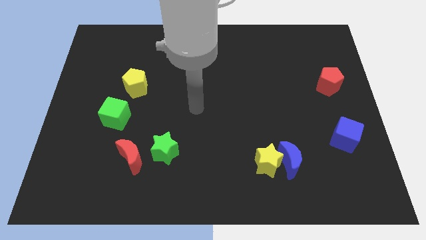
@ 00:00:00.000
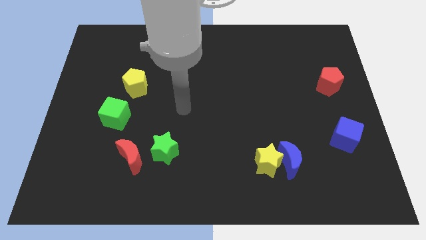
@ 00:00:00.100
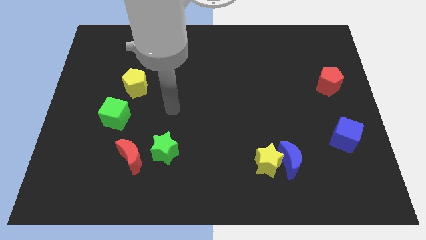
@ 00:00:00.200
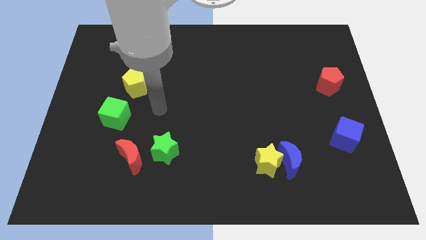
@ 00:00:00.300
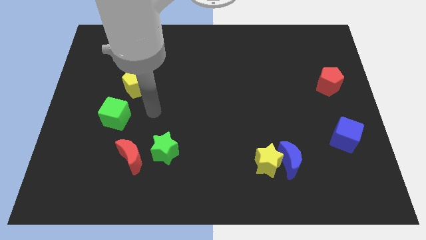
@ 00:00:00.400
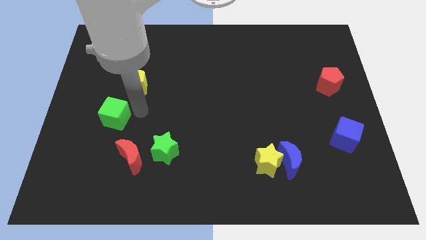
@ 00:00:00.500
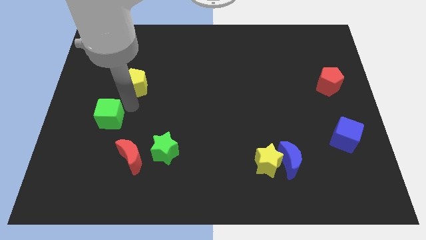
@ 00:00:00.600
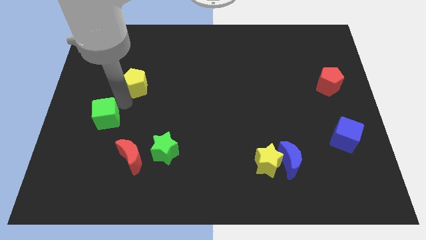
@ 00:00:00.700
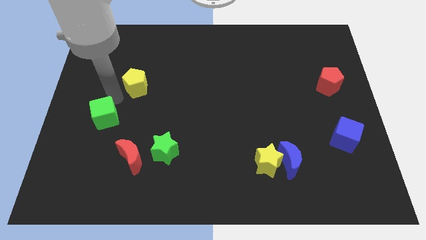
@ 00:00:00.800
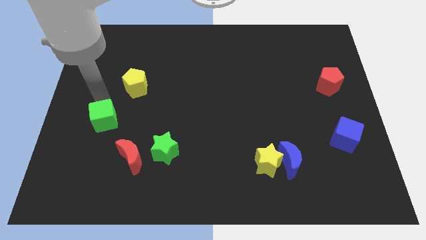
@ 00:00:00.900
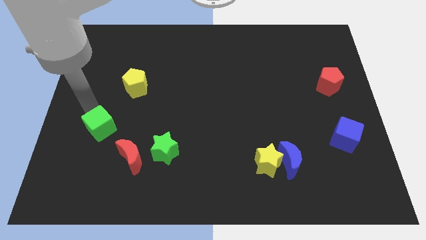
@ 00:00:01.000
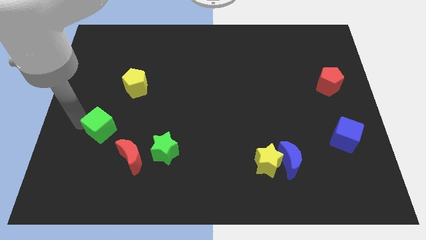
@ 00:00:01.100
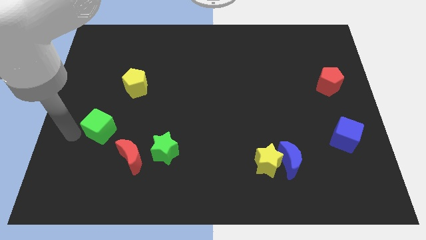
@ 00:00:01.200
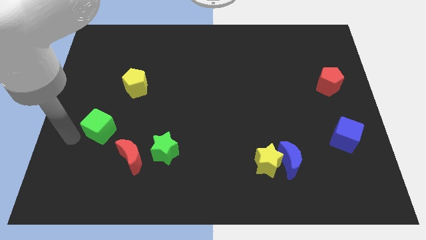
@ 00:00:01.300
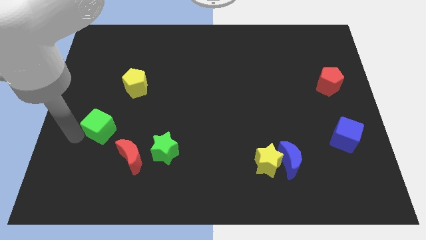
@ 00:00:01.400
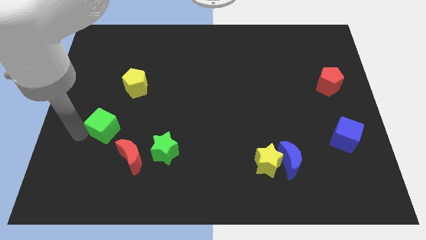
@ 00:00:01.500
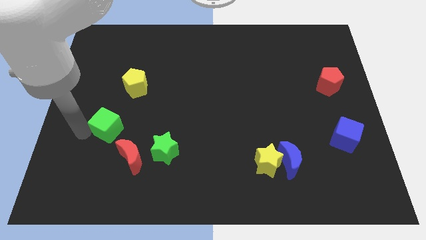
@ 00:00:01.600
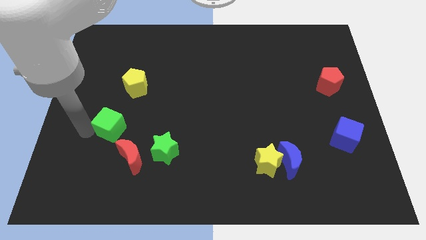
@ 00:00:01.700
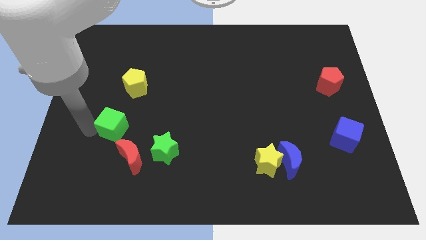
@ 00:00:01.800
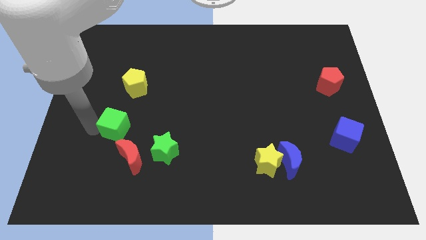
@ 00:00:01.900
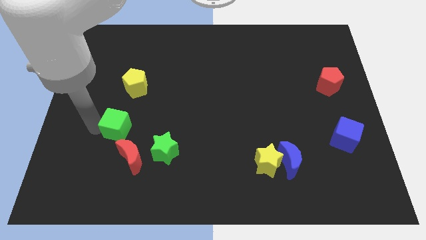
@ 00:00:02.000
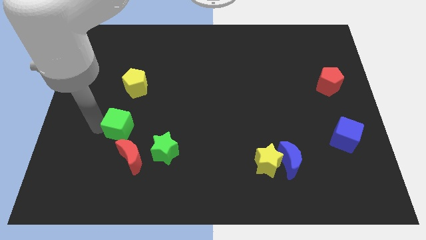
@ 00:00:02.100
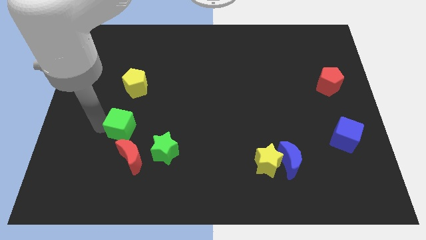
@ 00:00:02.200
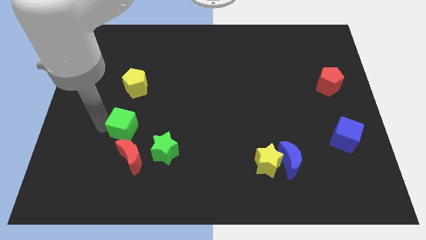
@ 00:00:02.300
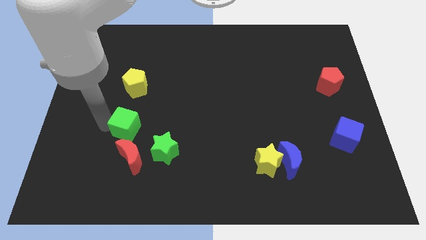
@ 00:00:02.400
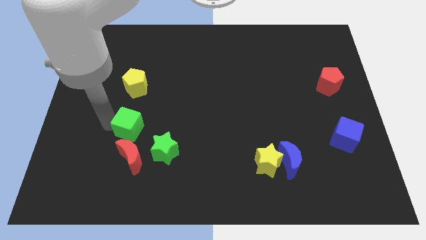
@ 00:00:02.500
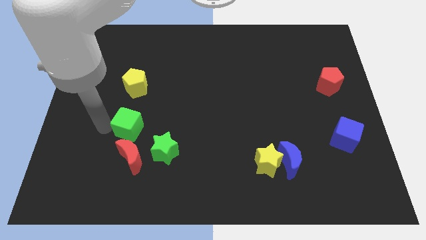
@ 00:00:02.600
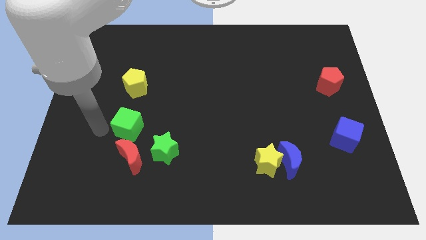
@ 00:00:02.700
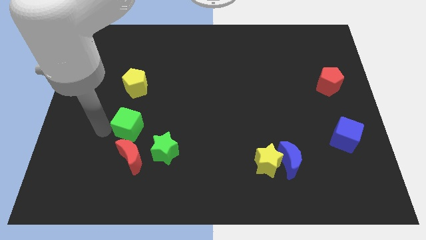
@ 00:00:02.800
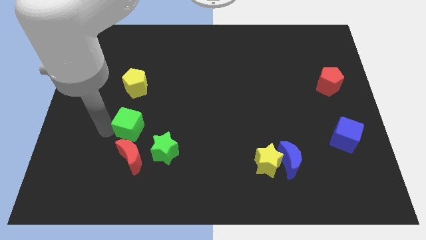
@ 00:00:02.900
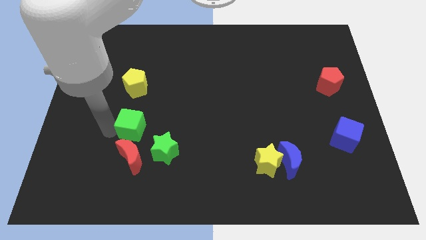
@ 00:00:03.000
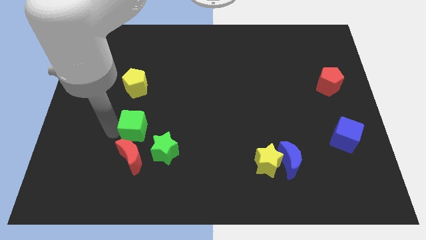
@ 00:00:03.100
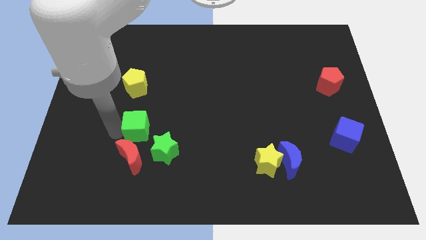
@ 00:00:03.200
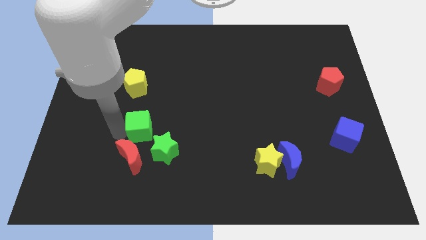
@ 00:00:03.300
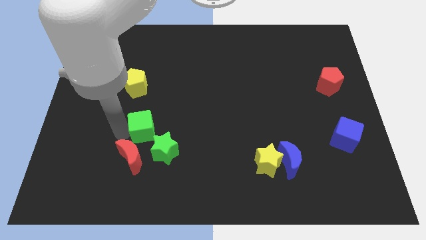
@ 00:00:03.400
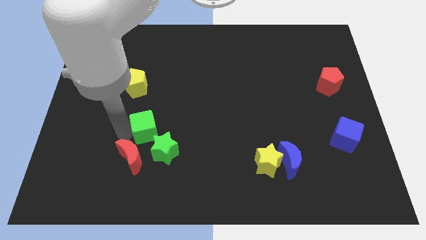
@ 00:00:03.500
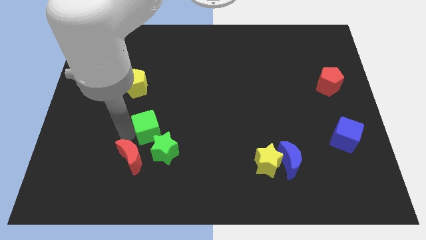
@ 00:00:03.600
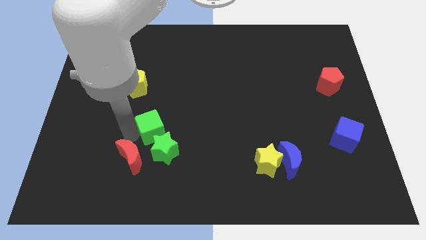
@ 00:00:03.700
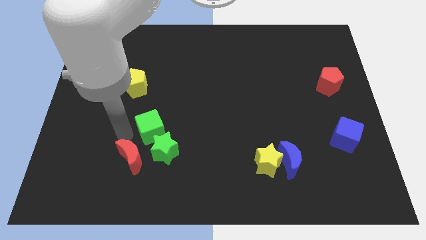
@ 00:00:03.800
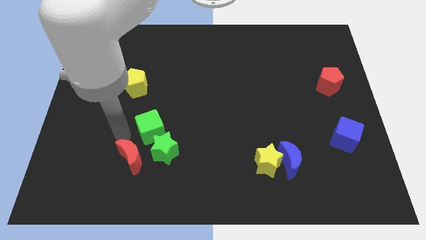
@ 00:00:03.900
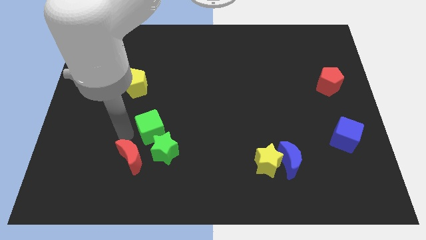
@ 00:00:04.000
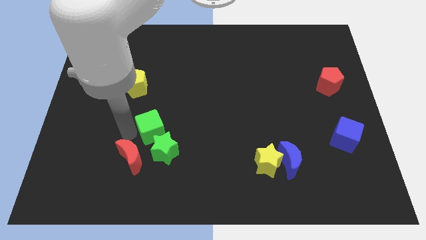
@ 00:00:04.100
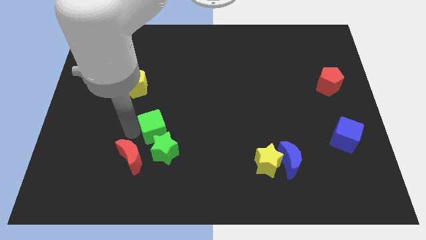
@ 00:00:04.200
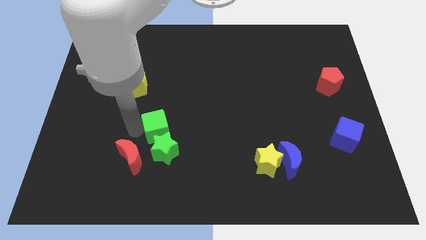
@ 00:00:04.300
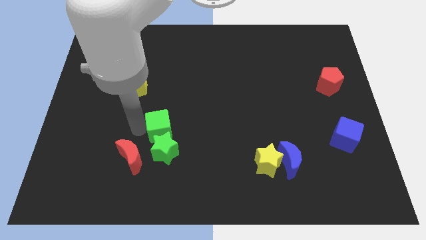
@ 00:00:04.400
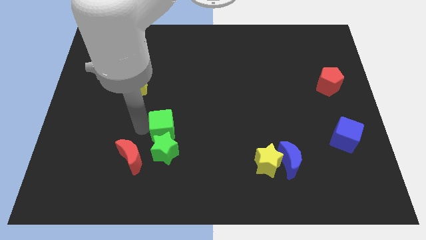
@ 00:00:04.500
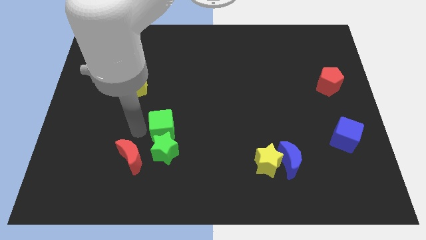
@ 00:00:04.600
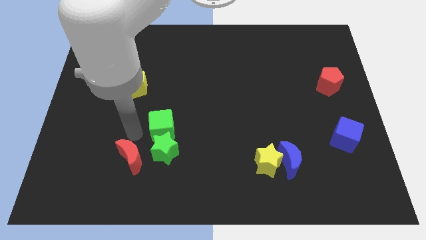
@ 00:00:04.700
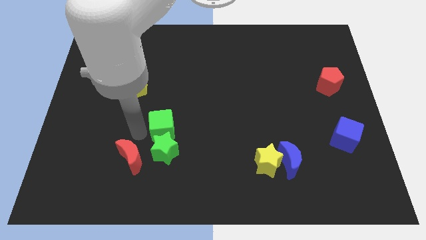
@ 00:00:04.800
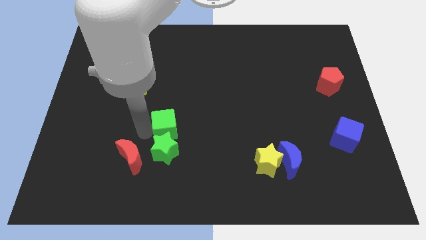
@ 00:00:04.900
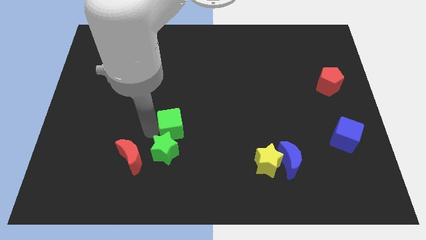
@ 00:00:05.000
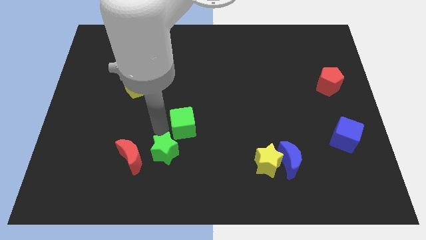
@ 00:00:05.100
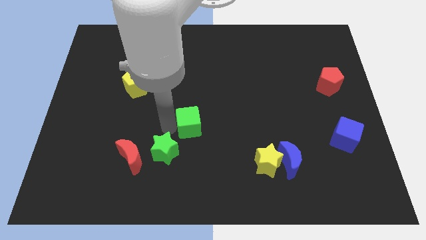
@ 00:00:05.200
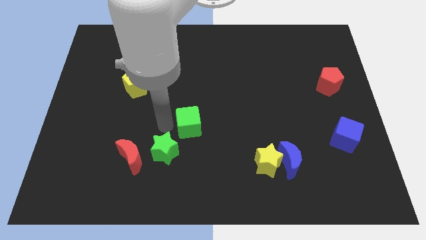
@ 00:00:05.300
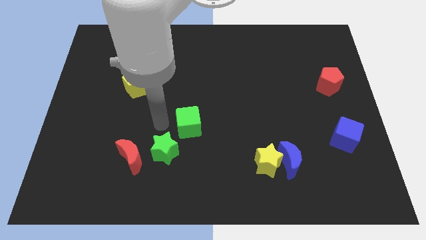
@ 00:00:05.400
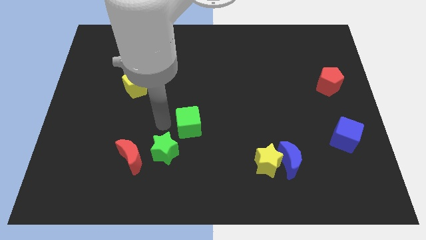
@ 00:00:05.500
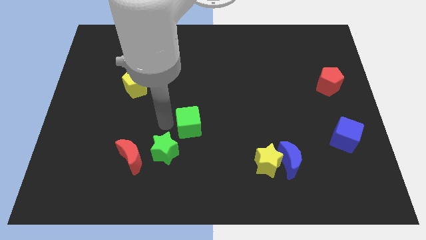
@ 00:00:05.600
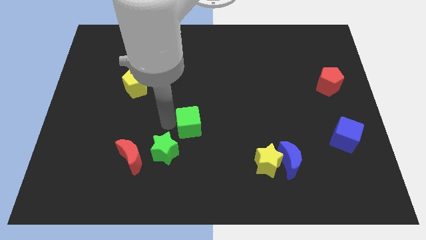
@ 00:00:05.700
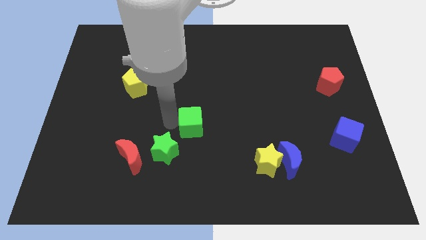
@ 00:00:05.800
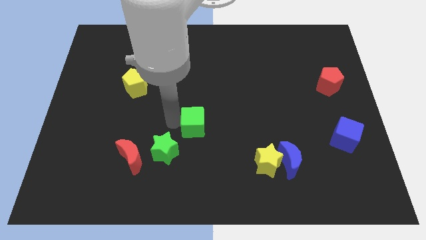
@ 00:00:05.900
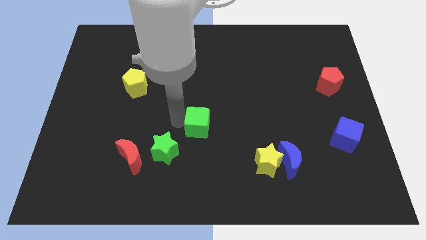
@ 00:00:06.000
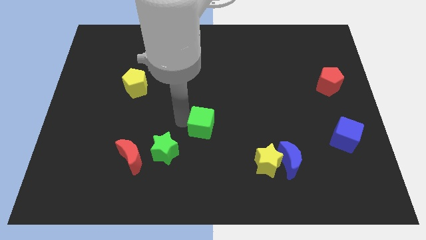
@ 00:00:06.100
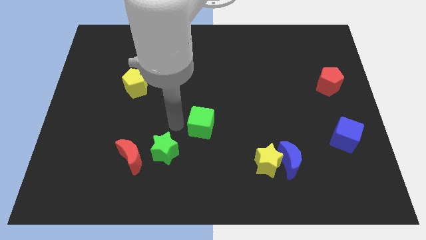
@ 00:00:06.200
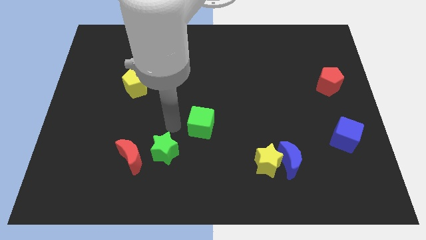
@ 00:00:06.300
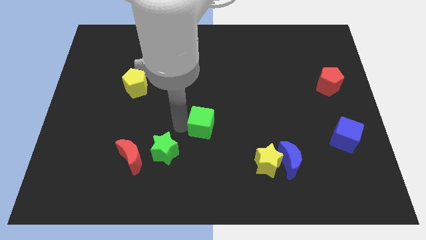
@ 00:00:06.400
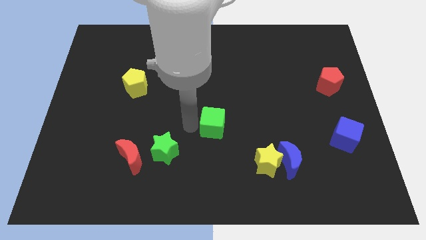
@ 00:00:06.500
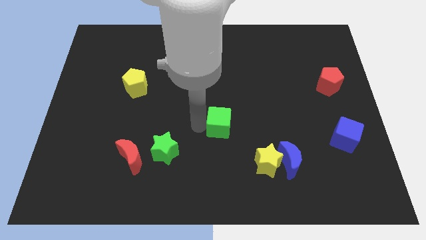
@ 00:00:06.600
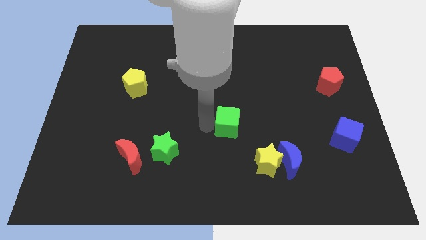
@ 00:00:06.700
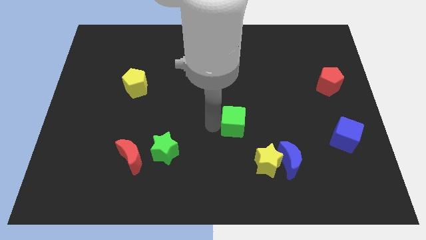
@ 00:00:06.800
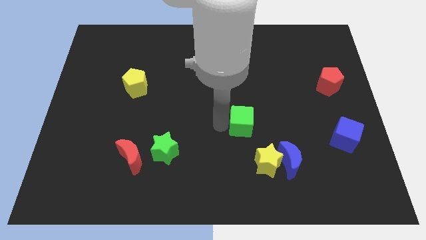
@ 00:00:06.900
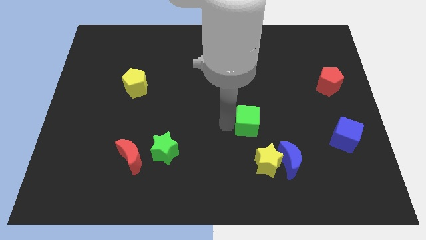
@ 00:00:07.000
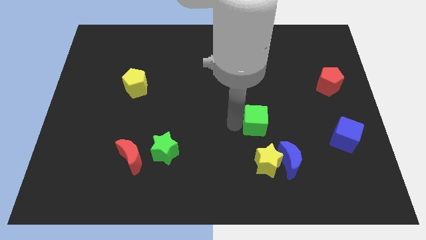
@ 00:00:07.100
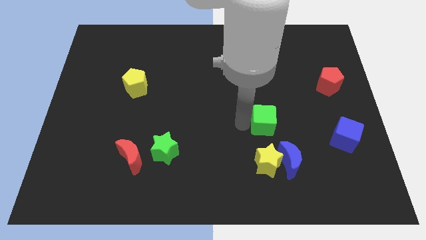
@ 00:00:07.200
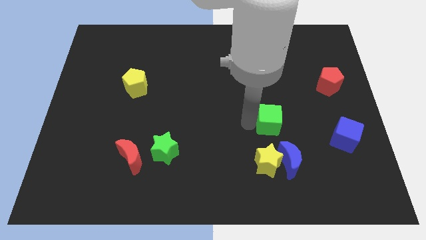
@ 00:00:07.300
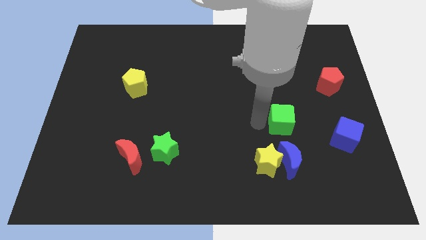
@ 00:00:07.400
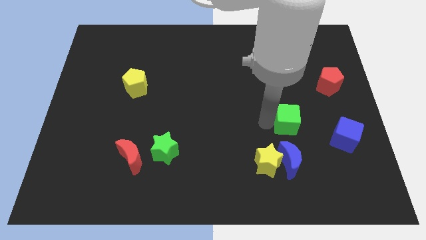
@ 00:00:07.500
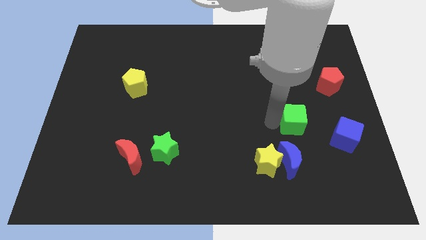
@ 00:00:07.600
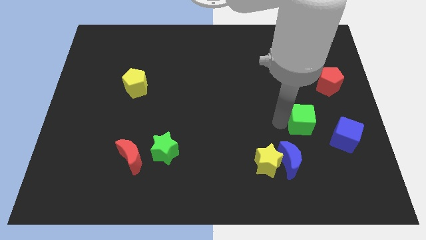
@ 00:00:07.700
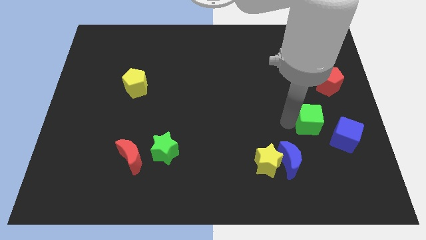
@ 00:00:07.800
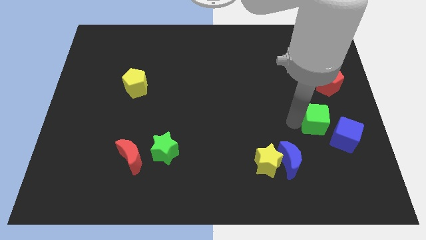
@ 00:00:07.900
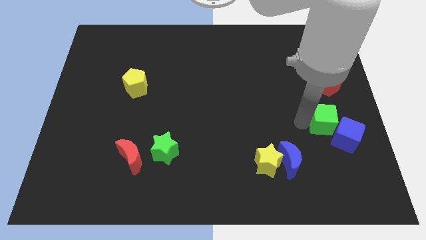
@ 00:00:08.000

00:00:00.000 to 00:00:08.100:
push the green cube to the bottom side of the red pentagon
